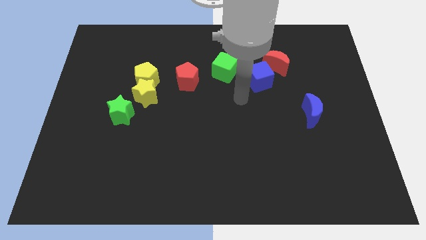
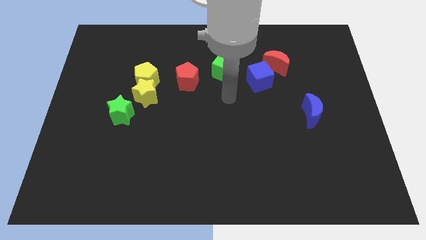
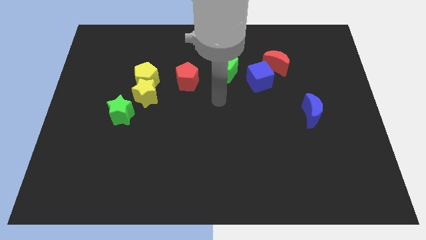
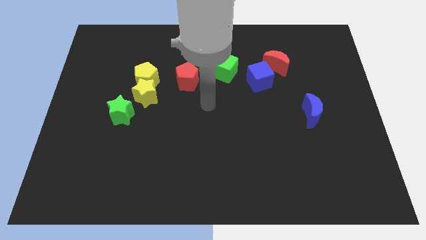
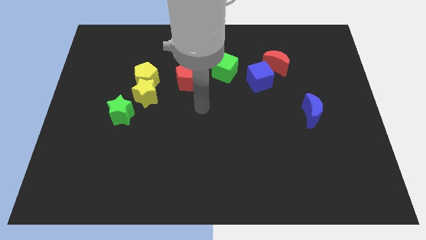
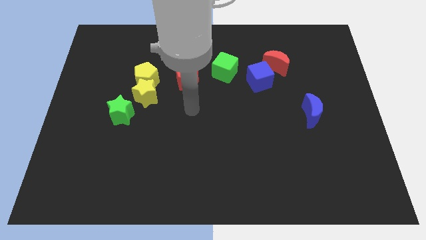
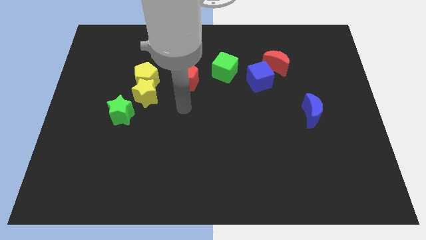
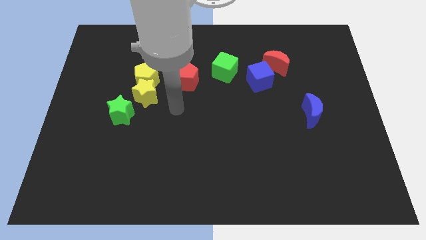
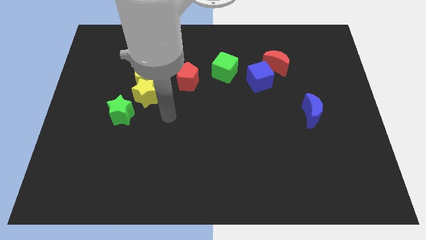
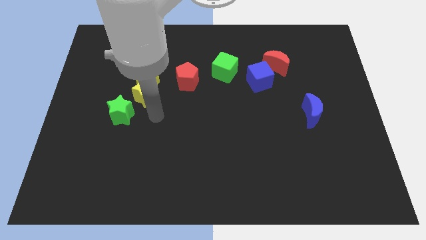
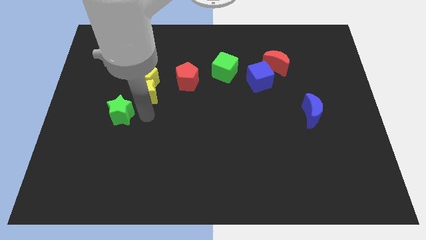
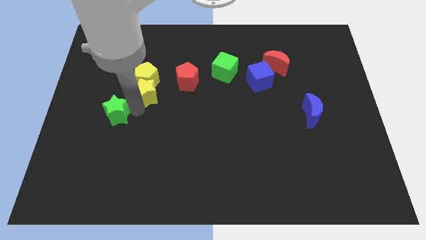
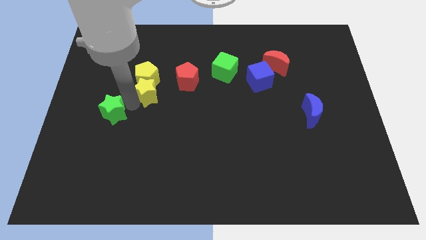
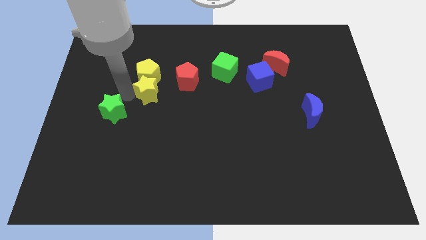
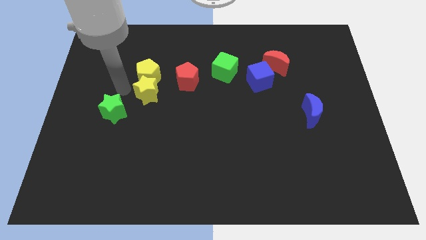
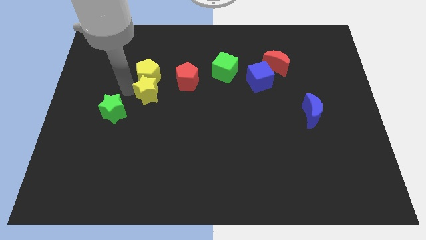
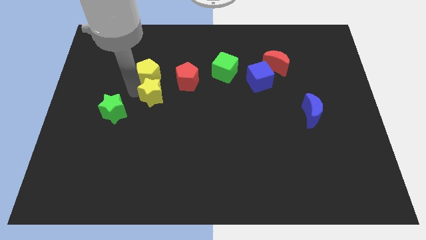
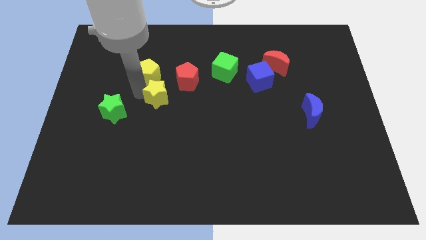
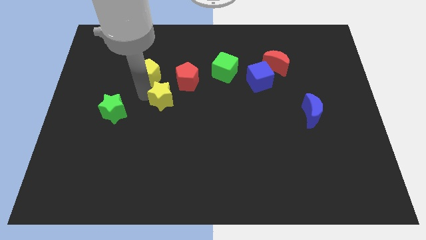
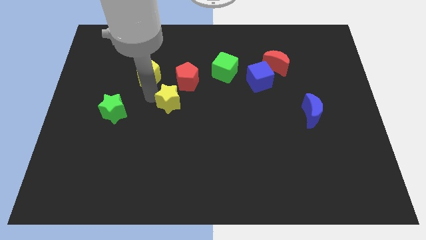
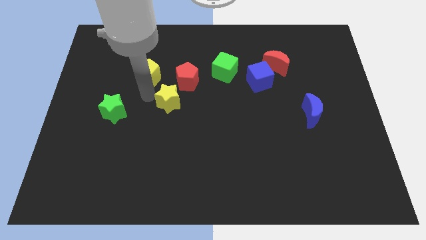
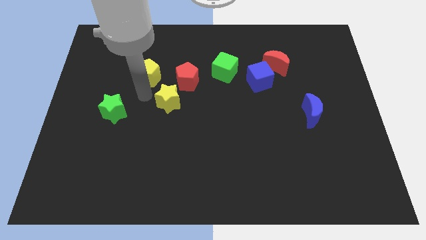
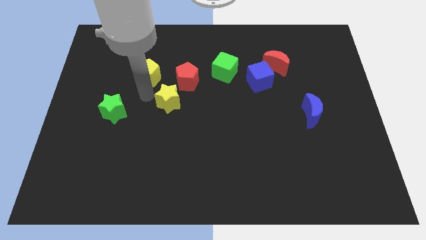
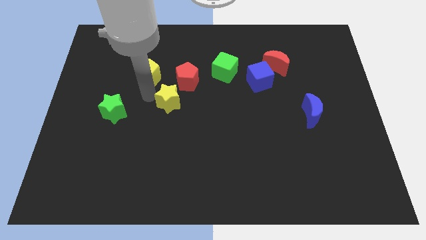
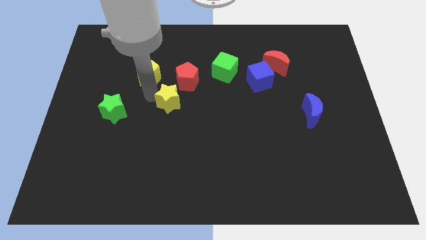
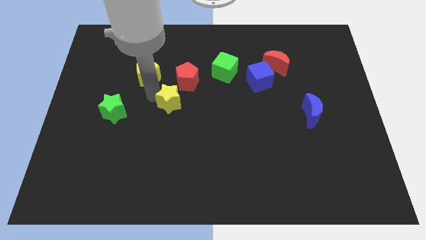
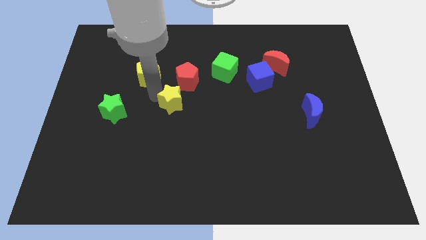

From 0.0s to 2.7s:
separate the yellow star from the yellow pentagon and green star

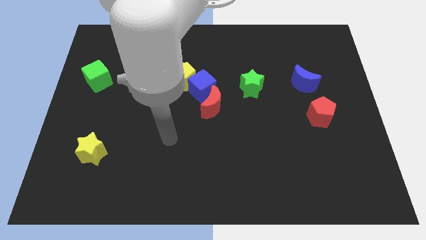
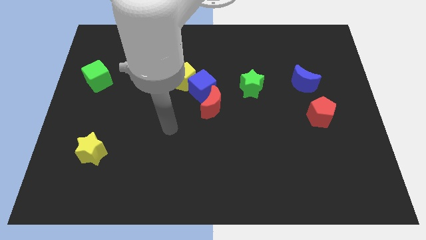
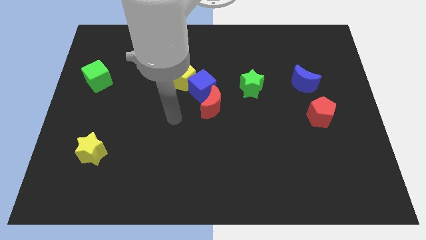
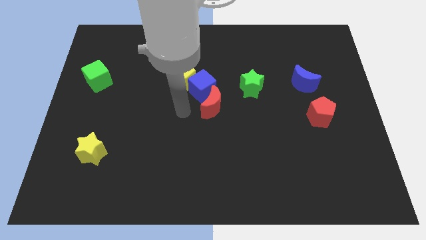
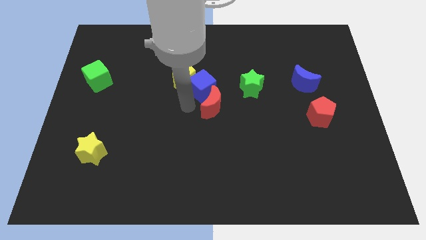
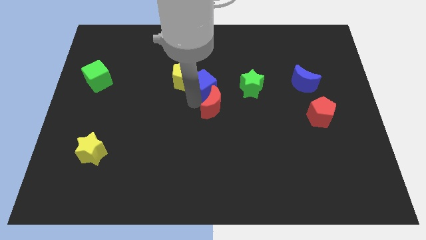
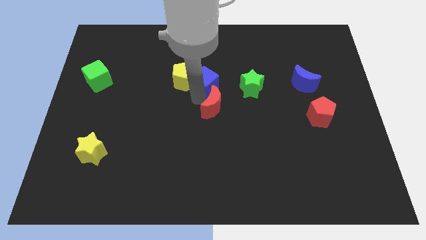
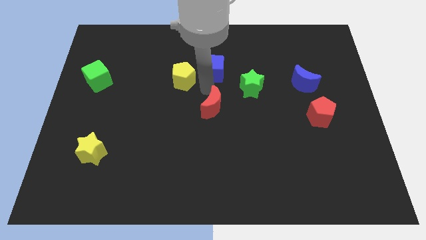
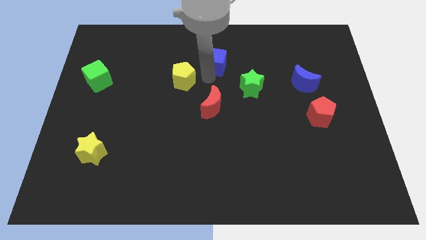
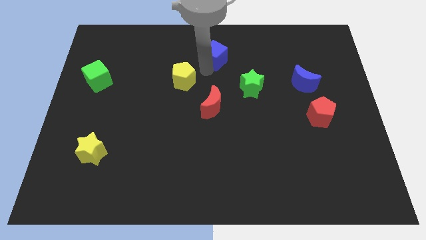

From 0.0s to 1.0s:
pull the yellow pentagon apart from the blue cube

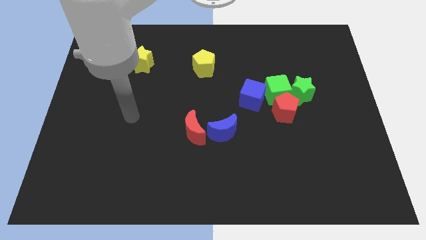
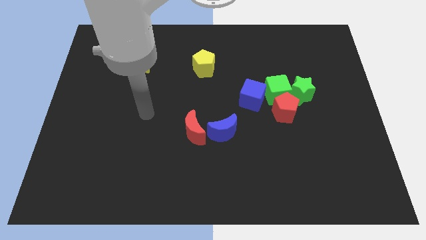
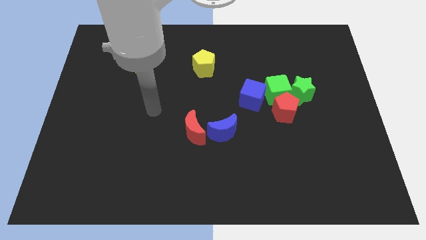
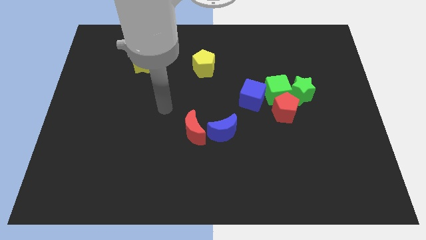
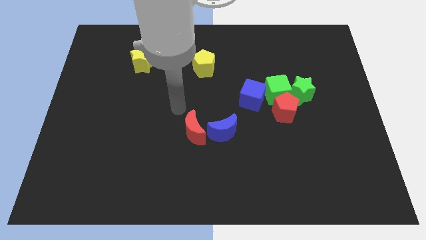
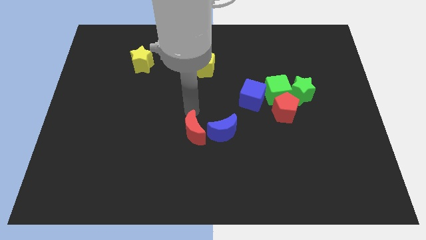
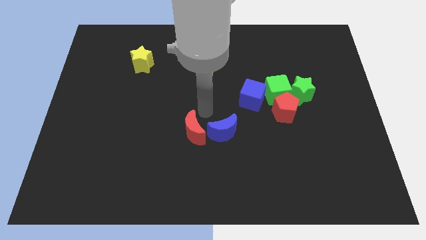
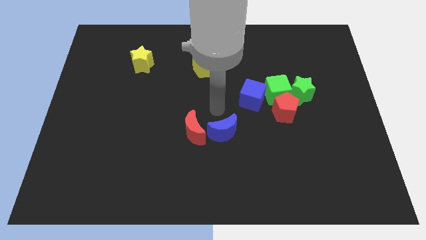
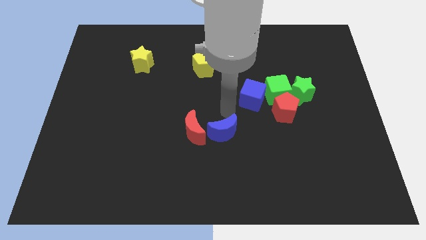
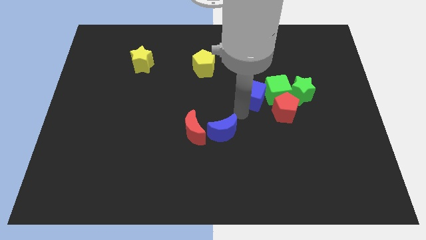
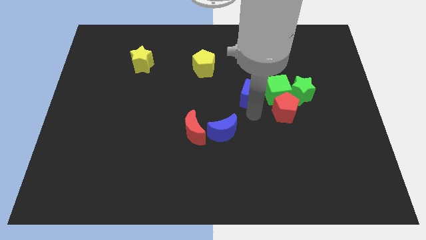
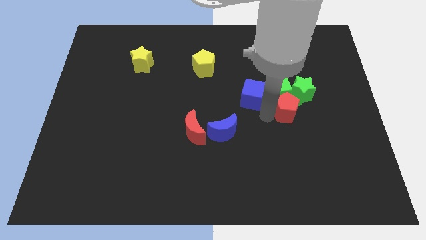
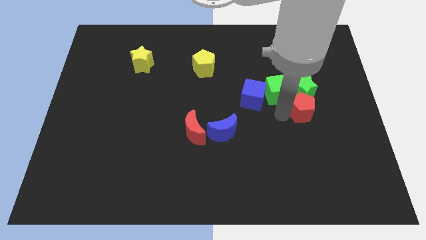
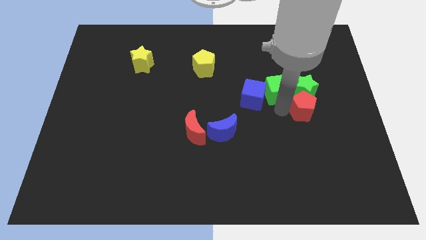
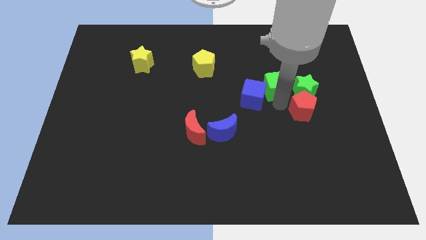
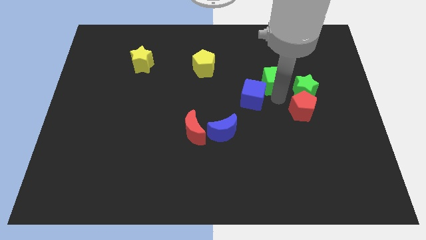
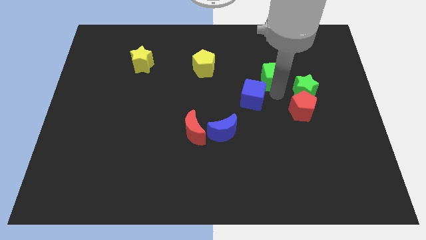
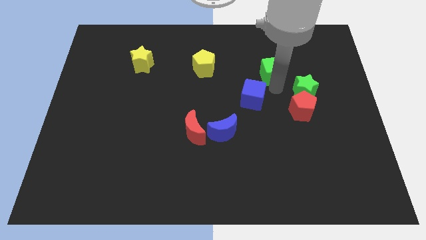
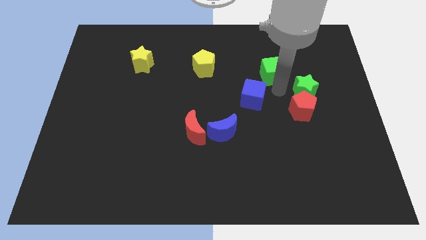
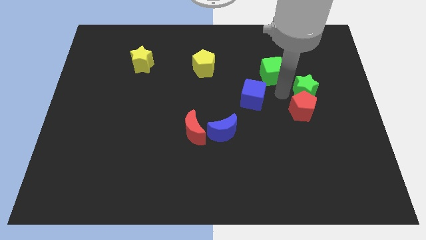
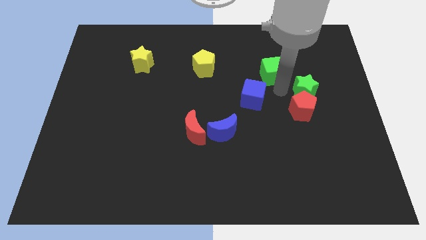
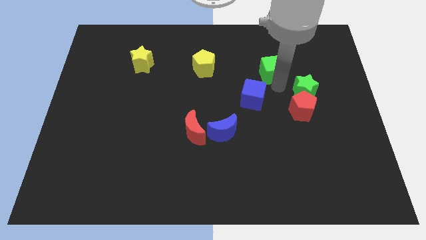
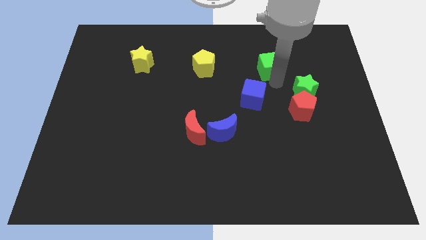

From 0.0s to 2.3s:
move the green cube away from the clump

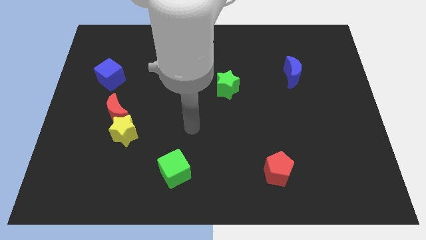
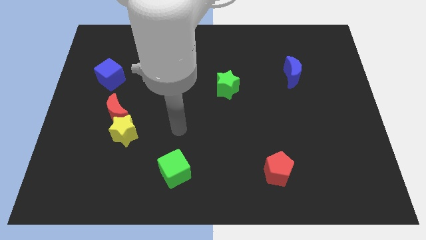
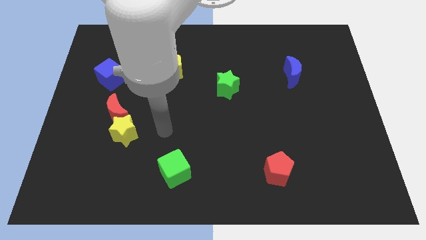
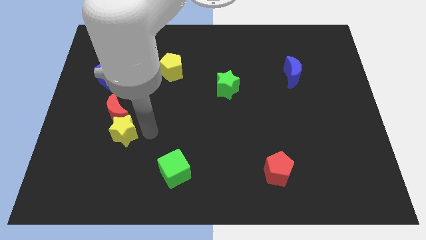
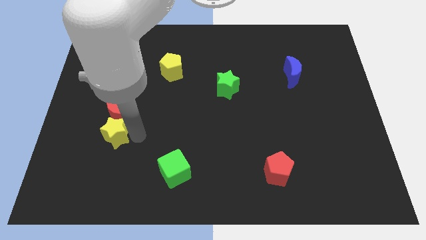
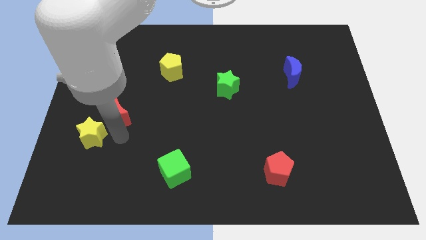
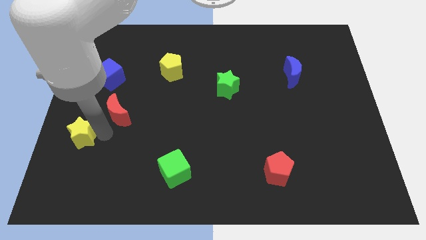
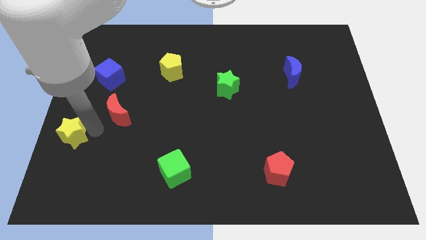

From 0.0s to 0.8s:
move the red moon away from the yellow star

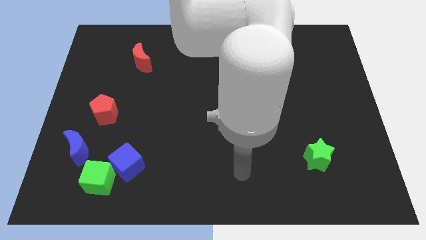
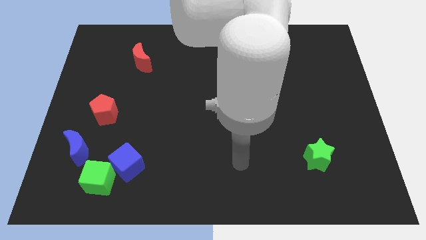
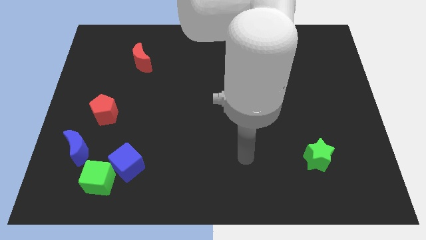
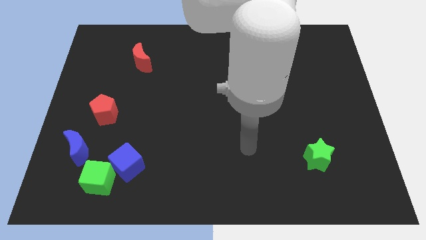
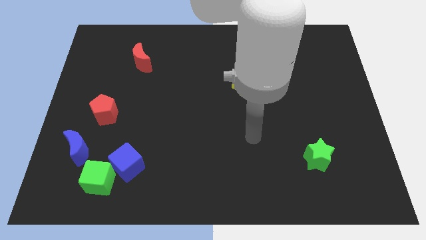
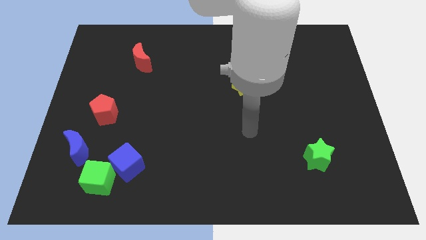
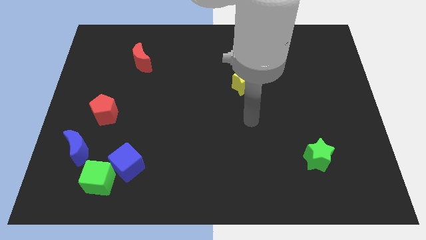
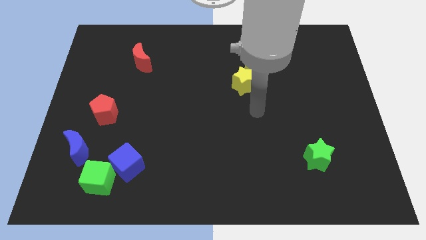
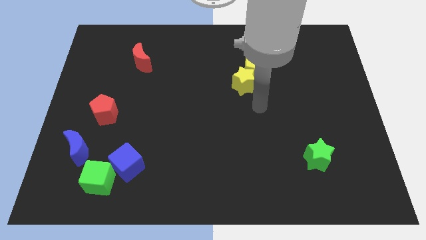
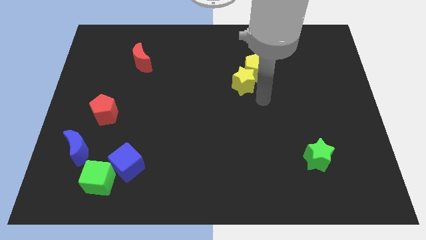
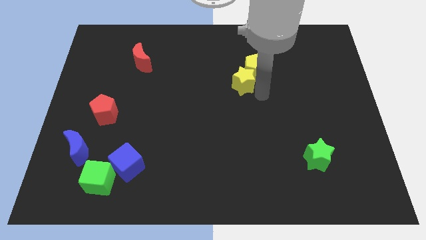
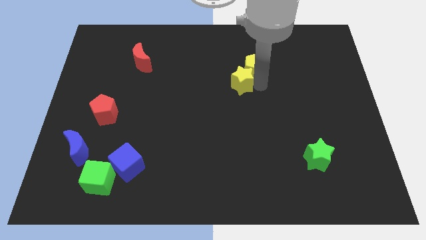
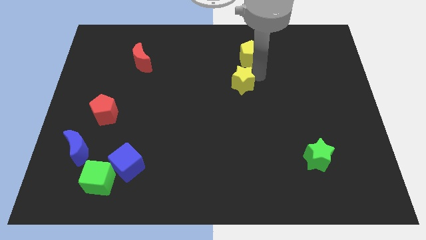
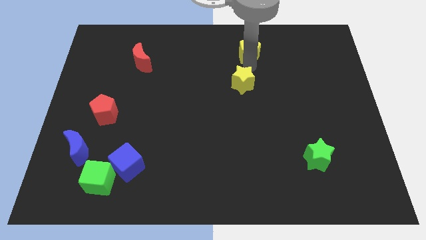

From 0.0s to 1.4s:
move the yellow star away from the yellow pentagon

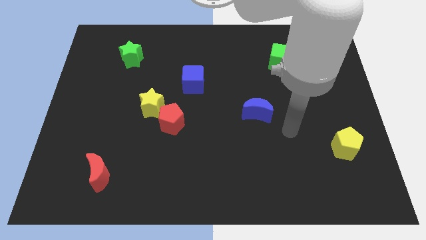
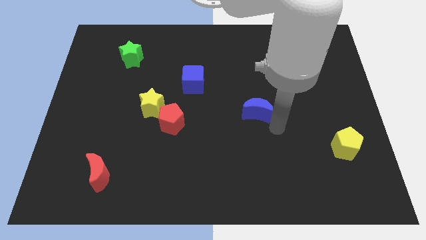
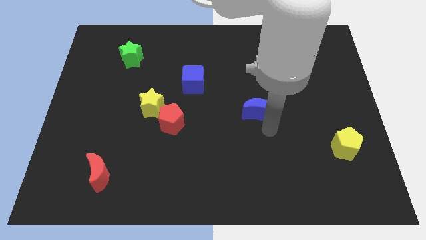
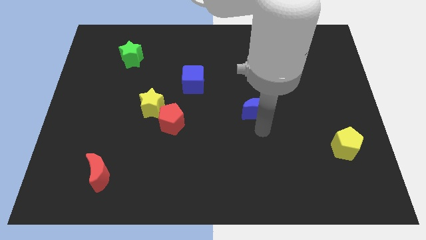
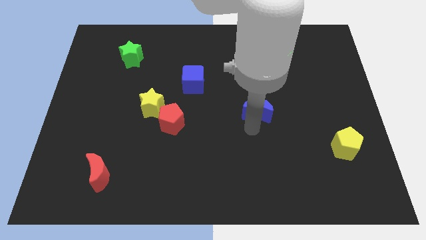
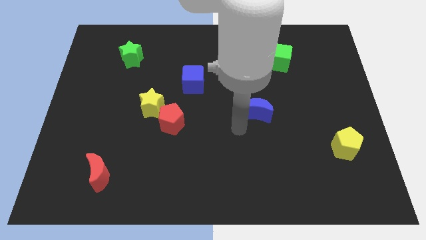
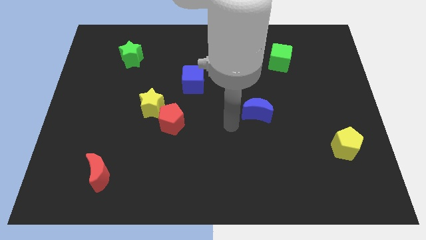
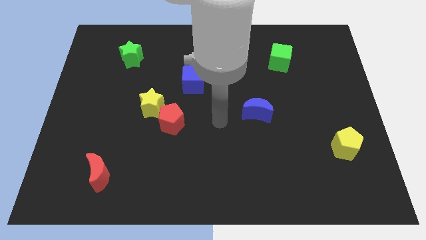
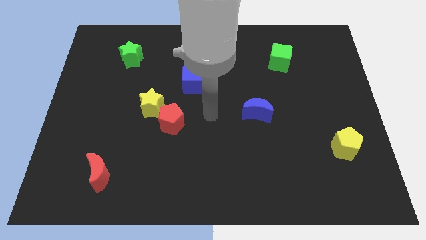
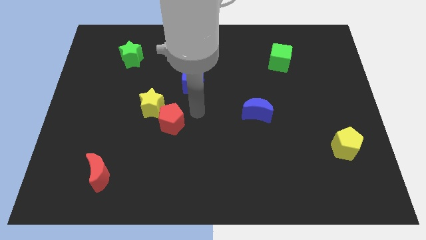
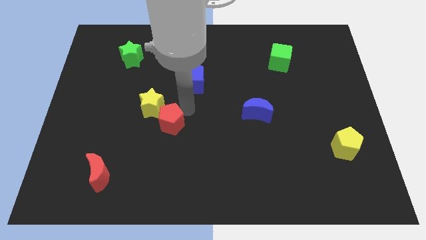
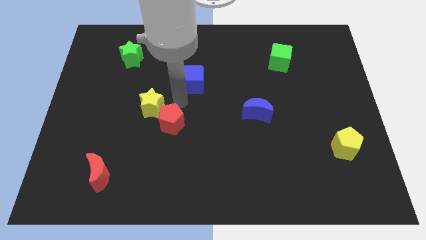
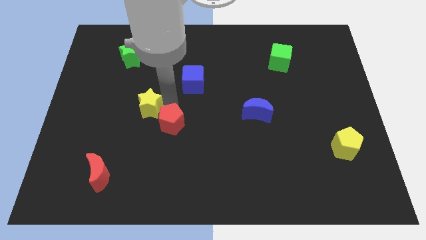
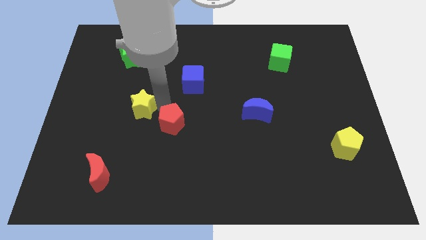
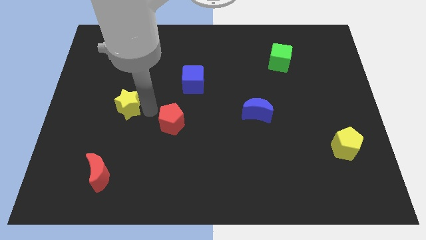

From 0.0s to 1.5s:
move the red pentagon away from the yellow star
